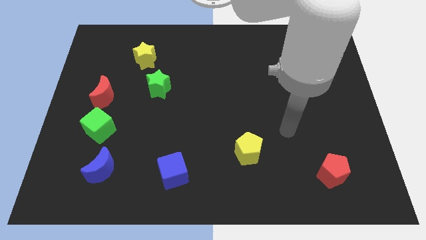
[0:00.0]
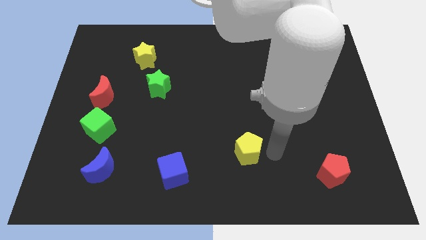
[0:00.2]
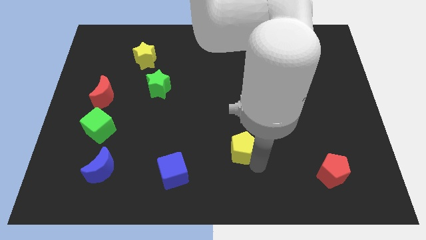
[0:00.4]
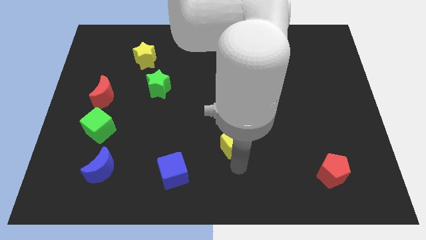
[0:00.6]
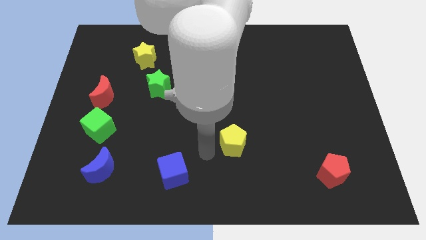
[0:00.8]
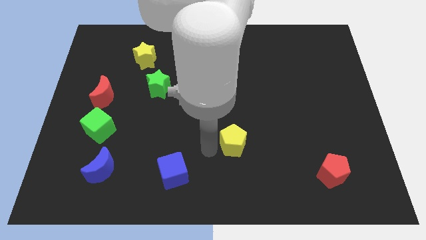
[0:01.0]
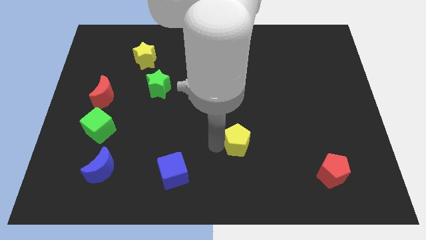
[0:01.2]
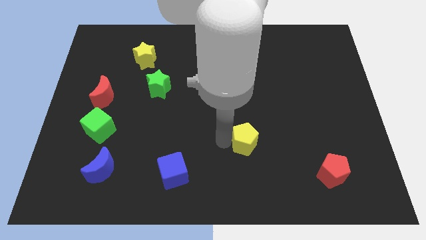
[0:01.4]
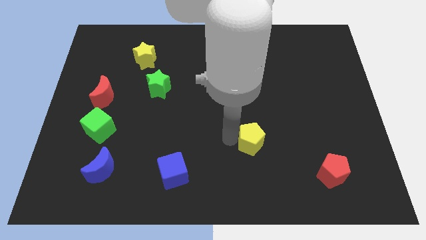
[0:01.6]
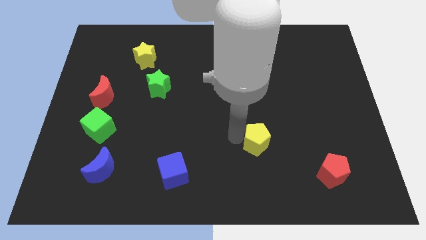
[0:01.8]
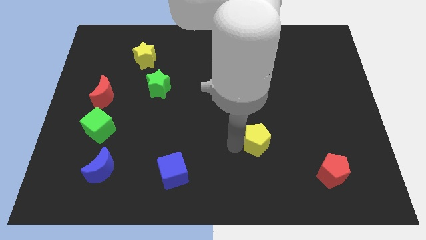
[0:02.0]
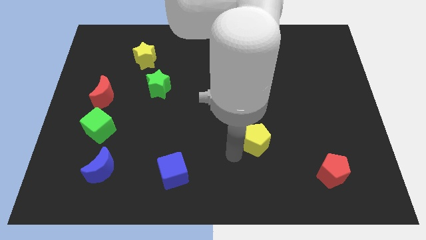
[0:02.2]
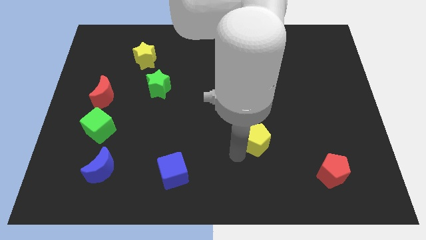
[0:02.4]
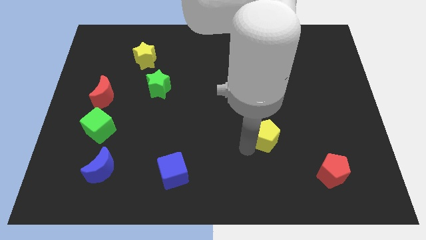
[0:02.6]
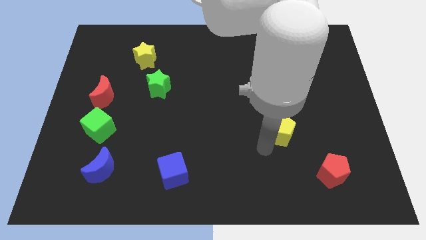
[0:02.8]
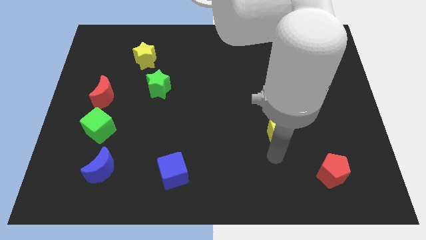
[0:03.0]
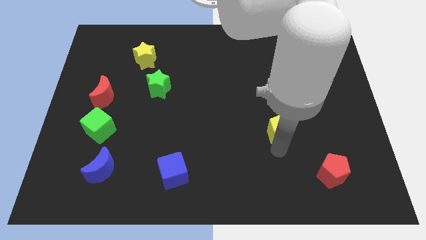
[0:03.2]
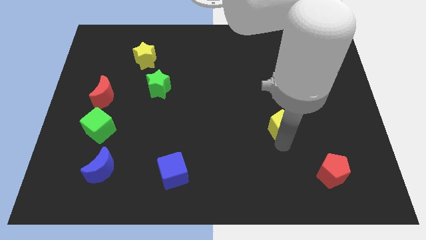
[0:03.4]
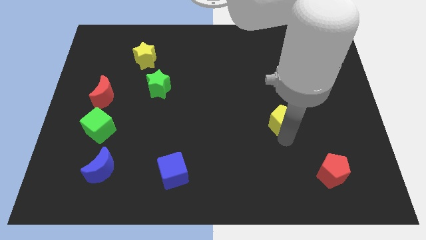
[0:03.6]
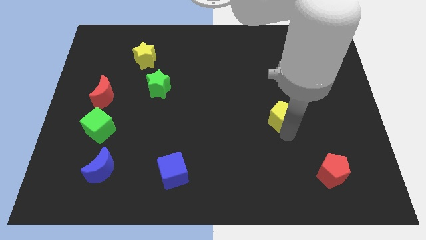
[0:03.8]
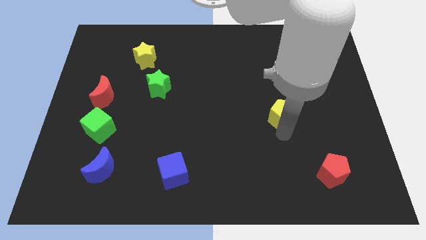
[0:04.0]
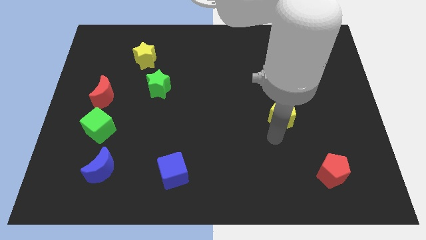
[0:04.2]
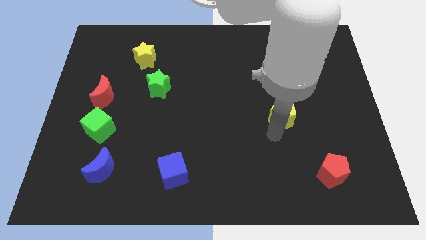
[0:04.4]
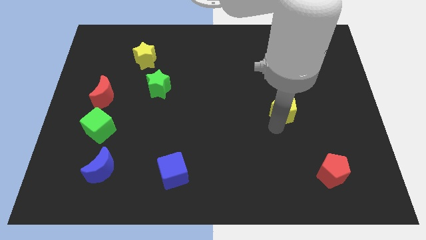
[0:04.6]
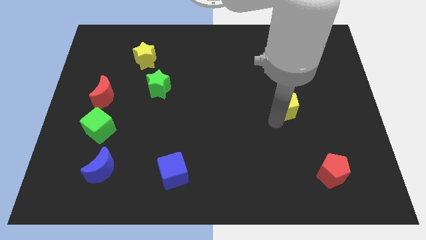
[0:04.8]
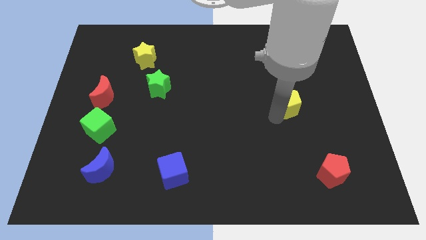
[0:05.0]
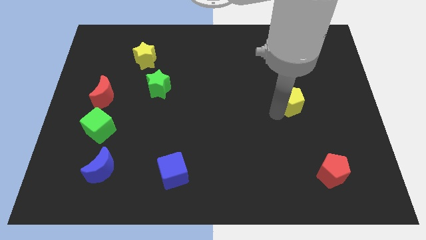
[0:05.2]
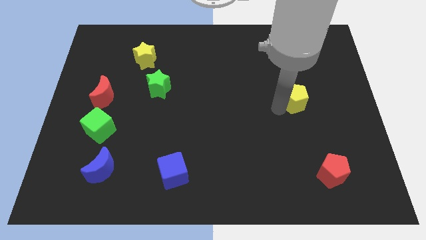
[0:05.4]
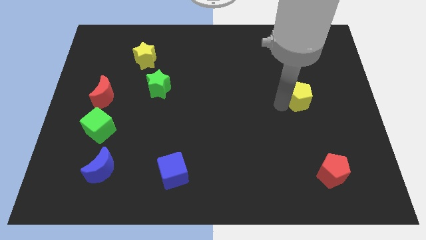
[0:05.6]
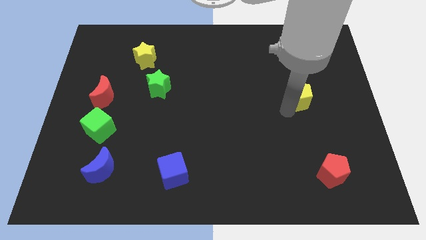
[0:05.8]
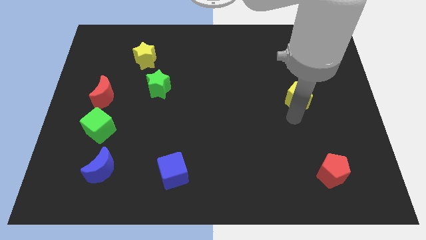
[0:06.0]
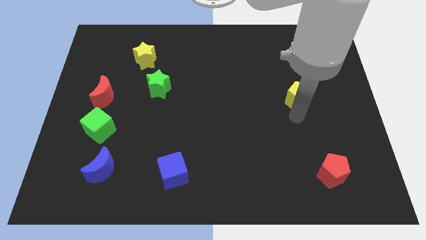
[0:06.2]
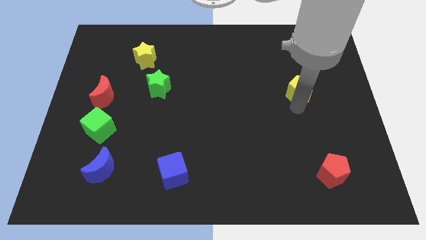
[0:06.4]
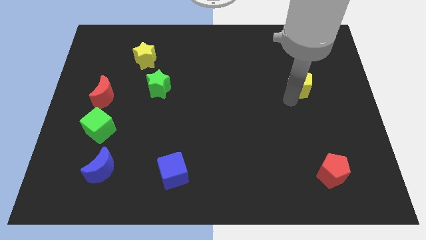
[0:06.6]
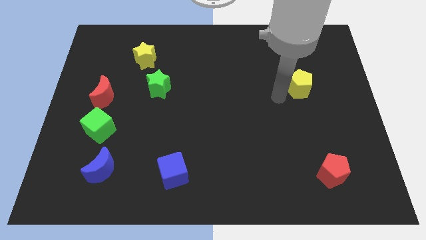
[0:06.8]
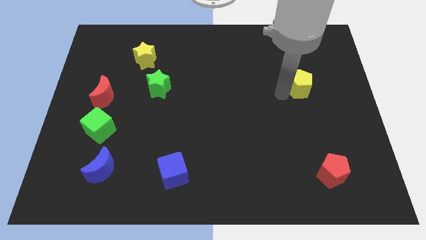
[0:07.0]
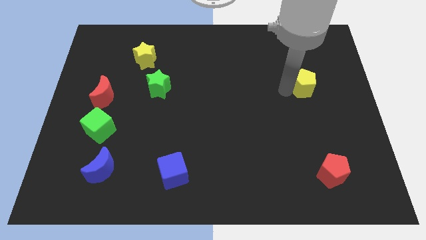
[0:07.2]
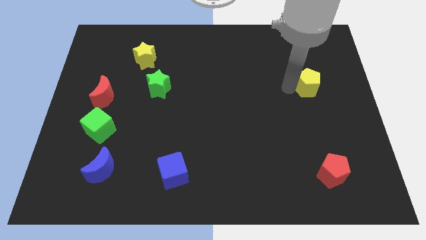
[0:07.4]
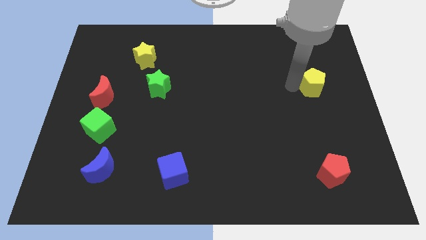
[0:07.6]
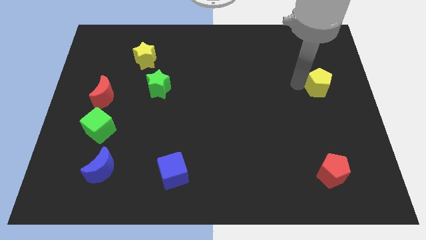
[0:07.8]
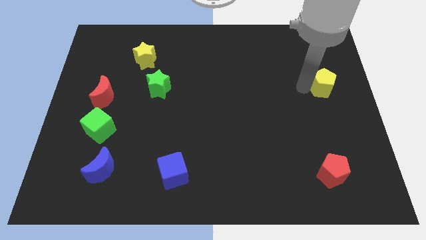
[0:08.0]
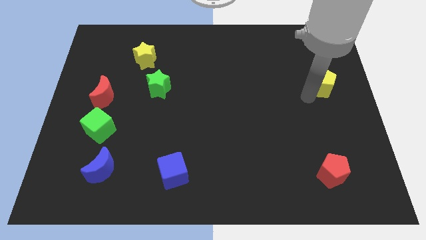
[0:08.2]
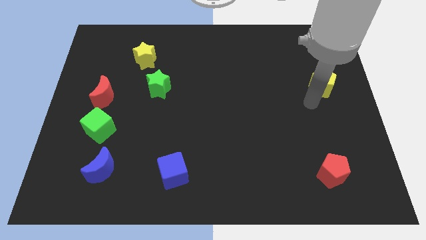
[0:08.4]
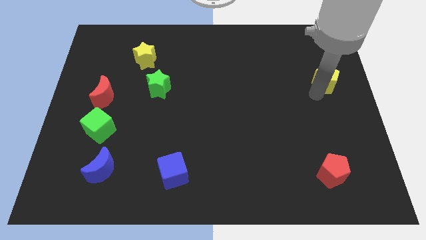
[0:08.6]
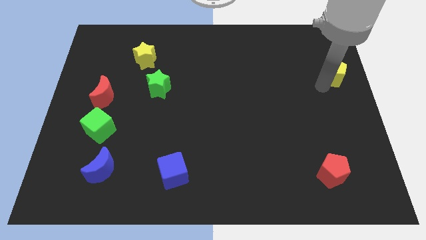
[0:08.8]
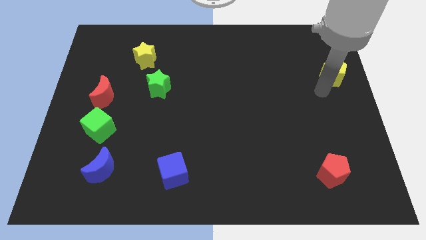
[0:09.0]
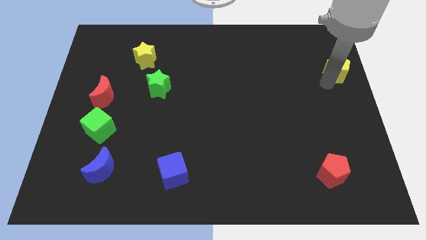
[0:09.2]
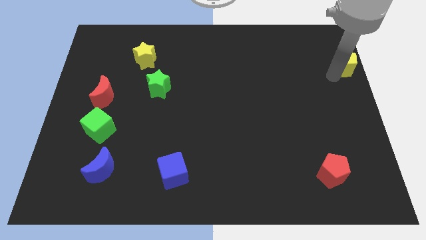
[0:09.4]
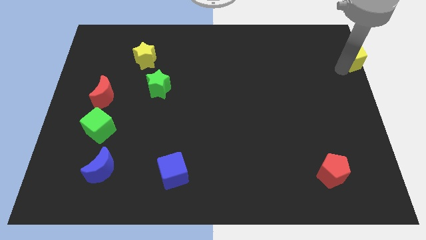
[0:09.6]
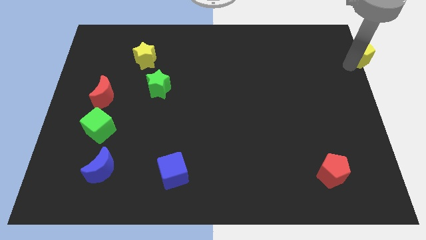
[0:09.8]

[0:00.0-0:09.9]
move the yellow pentagon to the top right

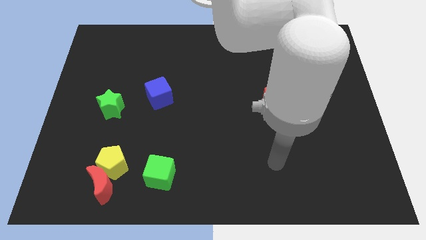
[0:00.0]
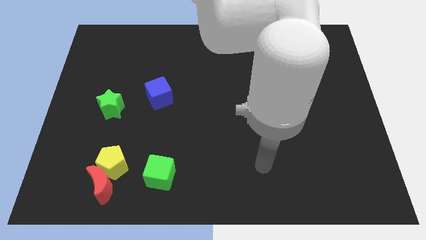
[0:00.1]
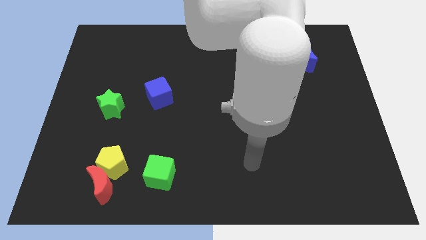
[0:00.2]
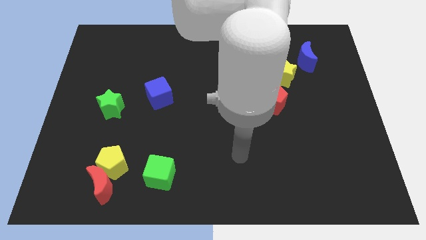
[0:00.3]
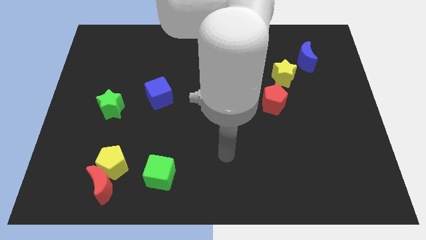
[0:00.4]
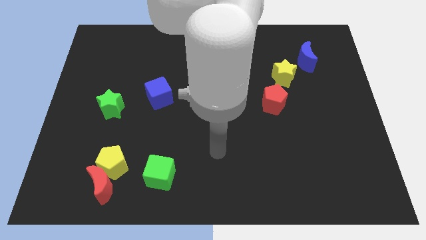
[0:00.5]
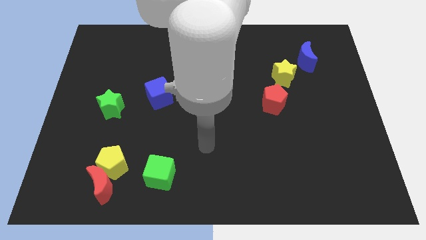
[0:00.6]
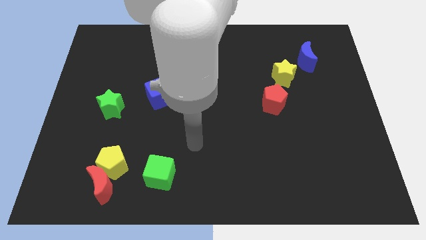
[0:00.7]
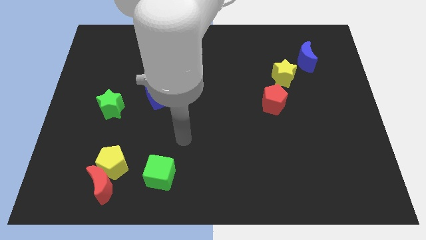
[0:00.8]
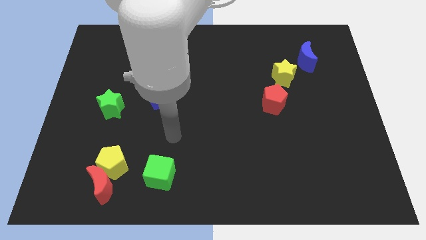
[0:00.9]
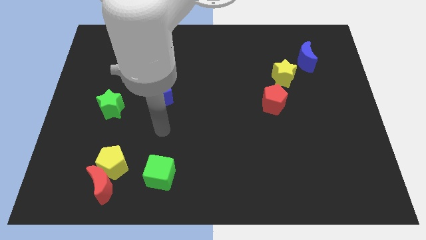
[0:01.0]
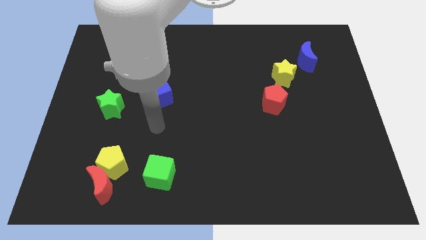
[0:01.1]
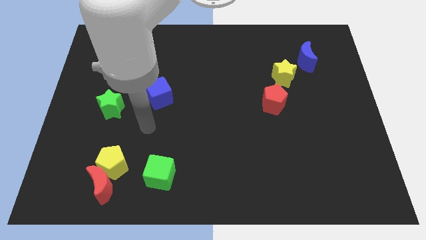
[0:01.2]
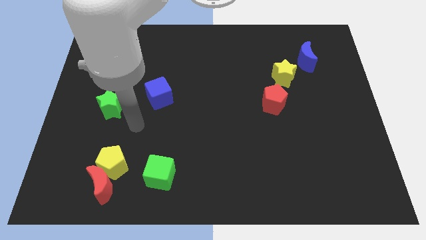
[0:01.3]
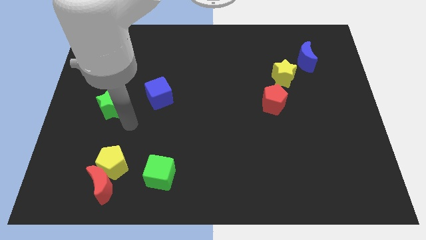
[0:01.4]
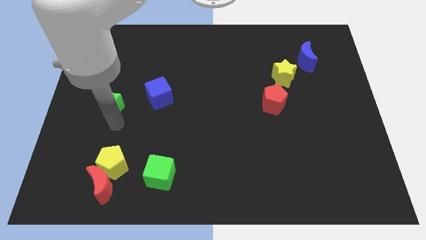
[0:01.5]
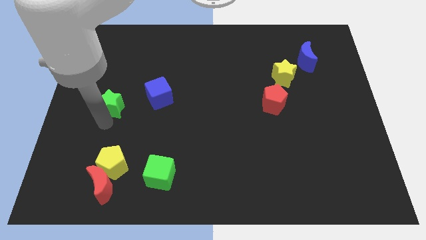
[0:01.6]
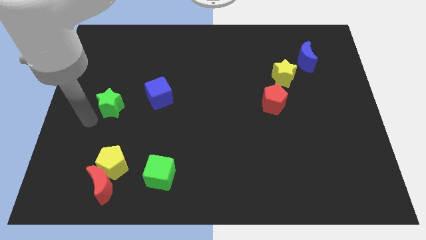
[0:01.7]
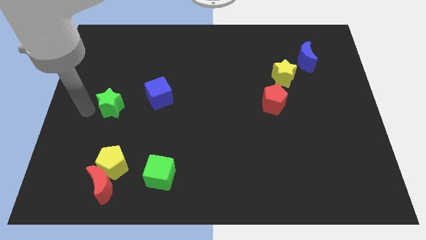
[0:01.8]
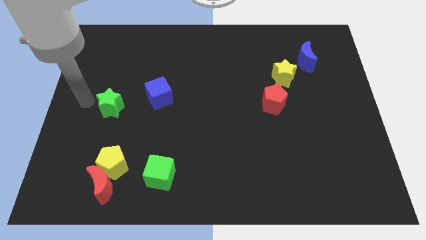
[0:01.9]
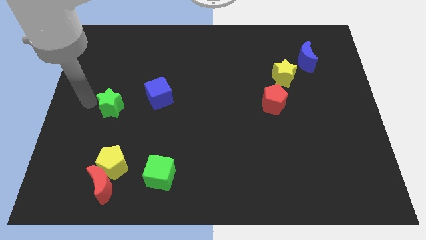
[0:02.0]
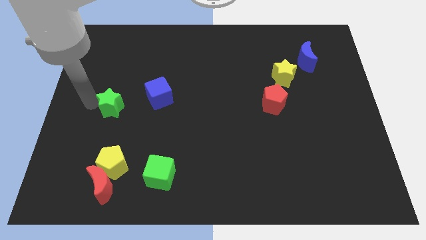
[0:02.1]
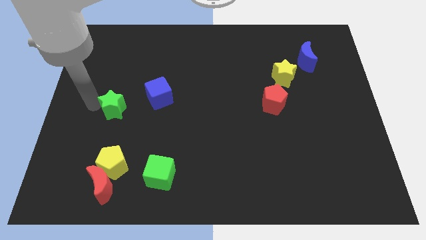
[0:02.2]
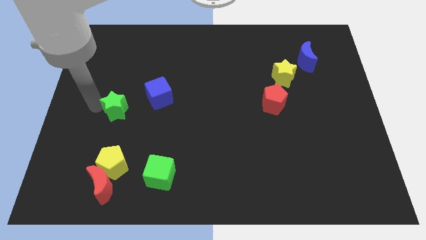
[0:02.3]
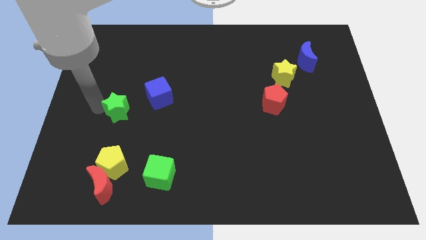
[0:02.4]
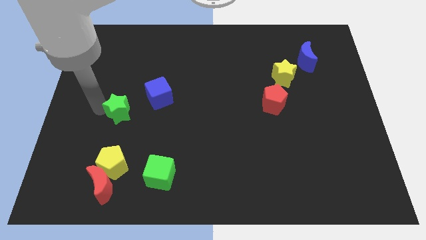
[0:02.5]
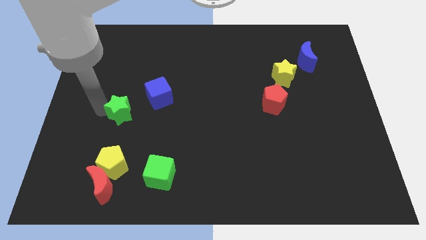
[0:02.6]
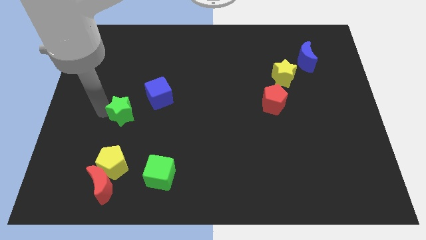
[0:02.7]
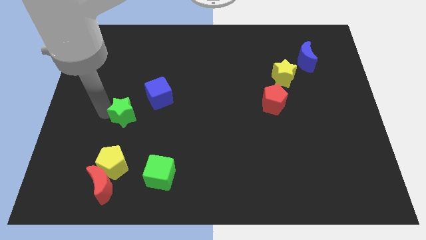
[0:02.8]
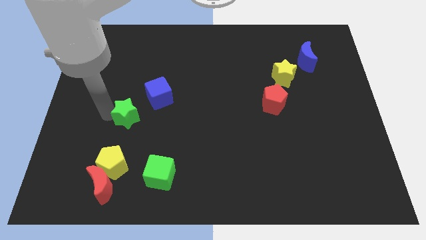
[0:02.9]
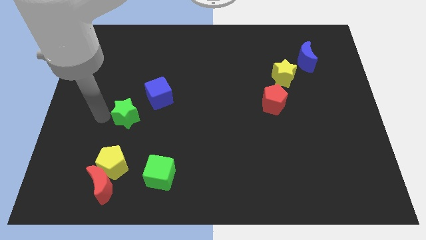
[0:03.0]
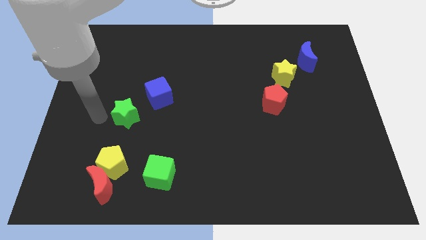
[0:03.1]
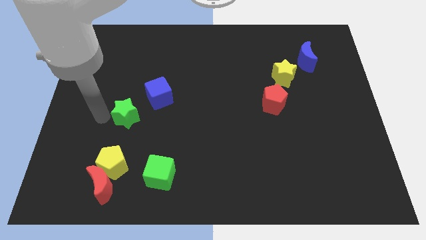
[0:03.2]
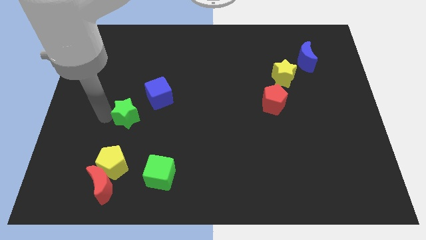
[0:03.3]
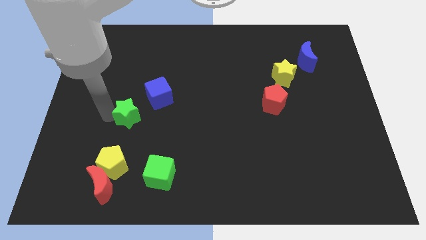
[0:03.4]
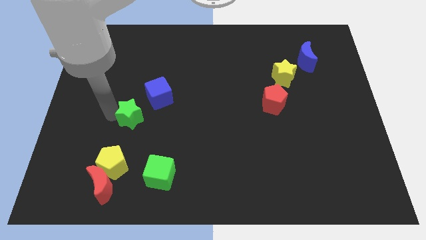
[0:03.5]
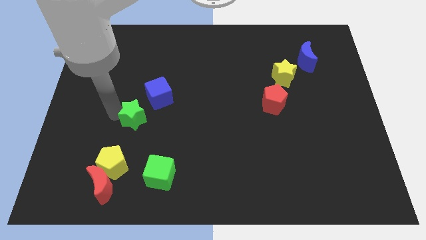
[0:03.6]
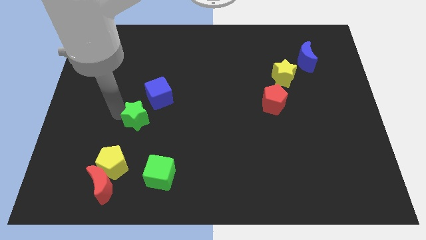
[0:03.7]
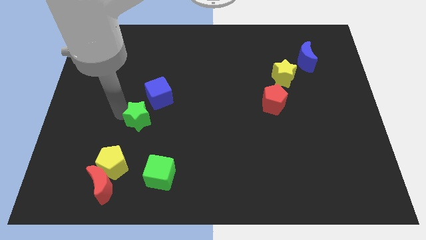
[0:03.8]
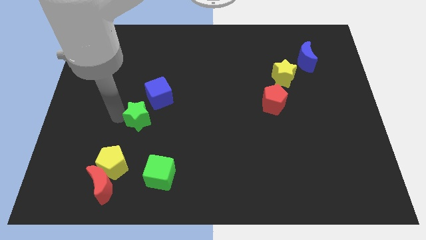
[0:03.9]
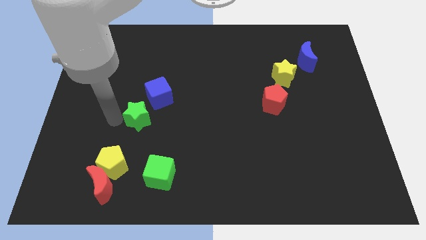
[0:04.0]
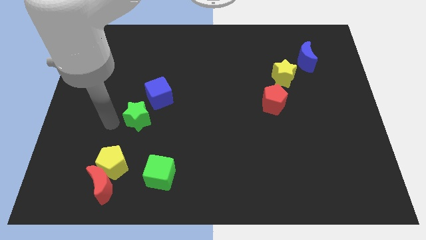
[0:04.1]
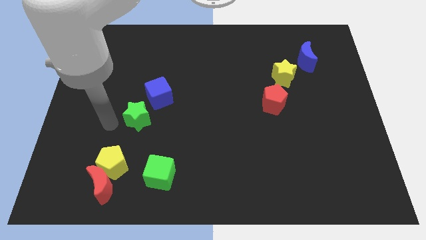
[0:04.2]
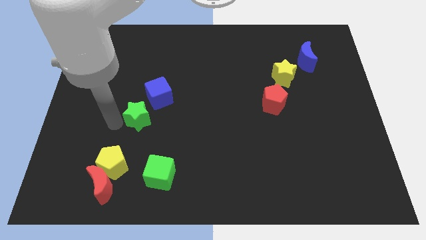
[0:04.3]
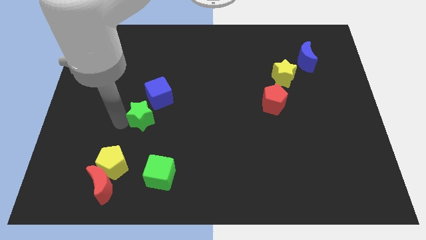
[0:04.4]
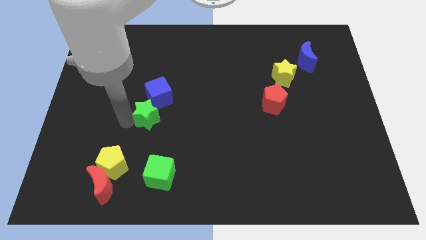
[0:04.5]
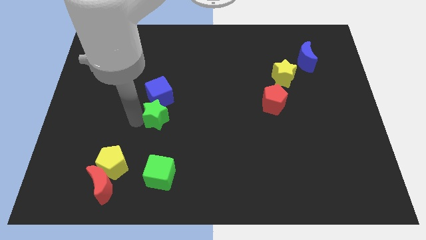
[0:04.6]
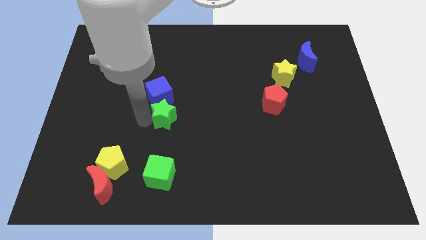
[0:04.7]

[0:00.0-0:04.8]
move the green star to the center of the board
